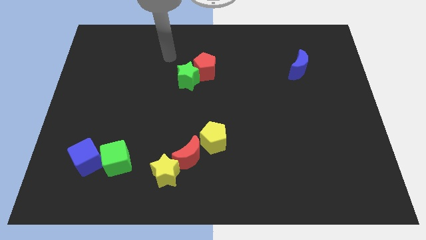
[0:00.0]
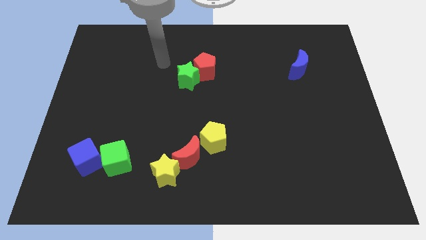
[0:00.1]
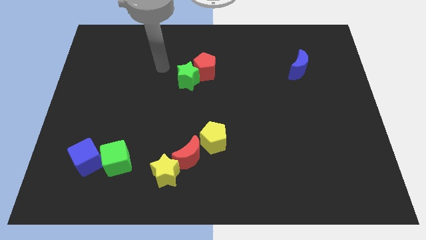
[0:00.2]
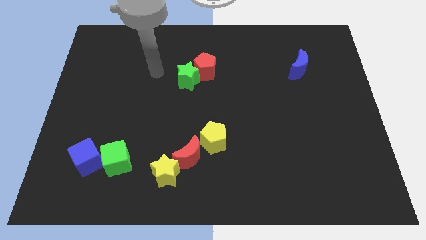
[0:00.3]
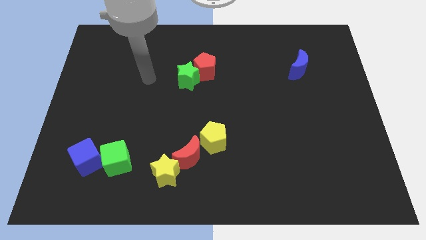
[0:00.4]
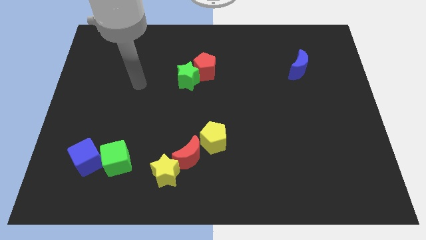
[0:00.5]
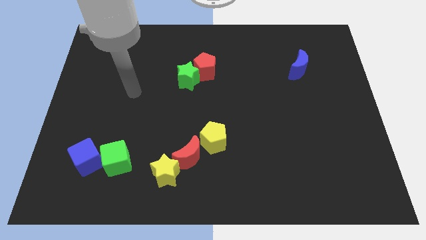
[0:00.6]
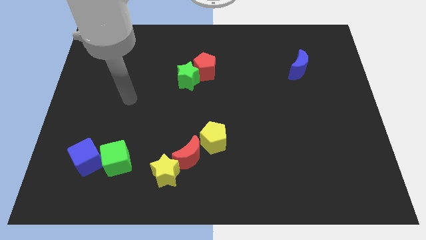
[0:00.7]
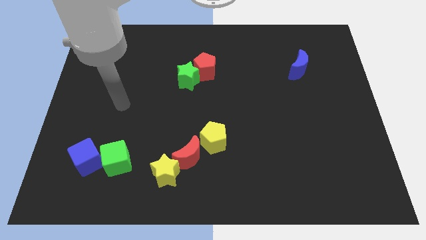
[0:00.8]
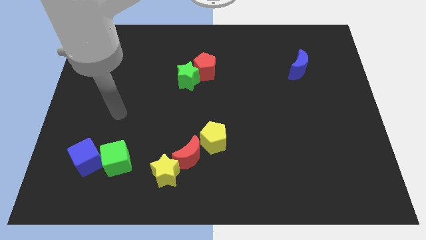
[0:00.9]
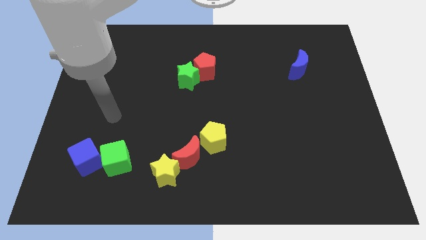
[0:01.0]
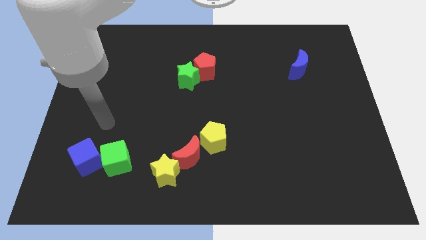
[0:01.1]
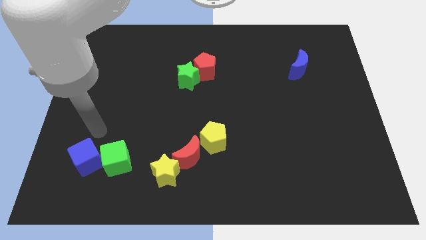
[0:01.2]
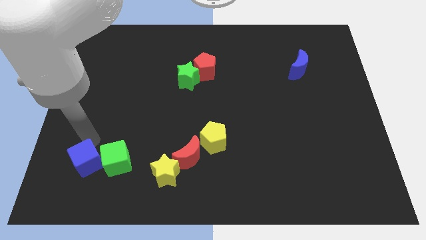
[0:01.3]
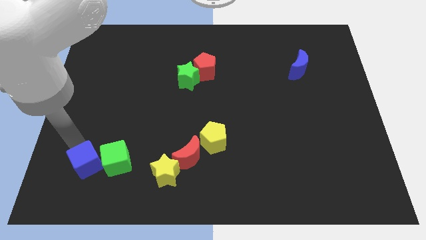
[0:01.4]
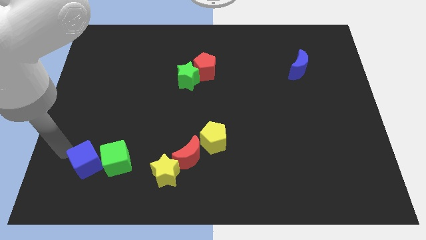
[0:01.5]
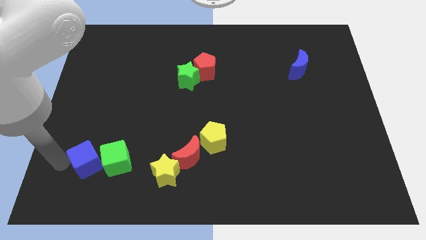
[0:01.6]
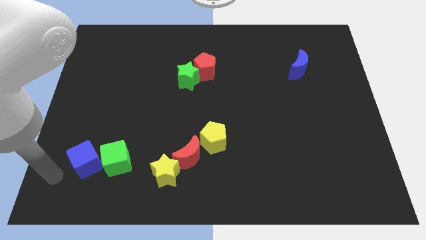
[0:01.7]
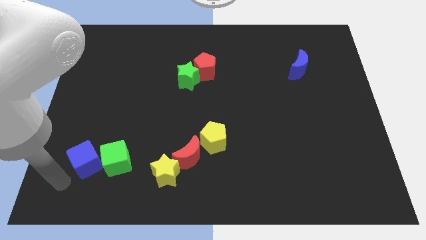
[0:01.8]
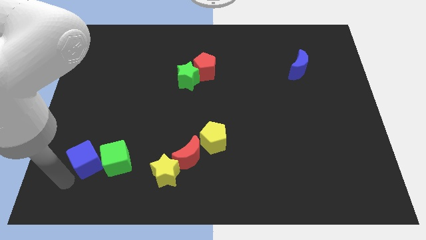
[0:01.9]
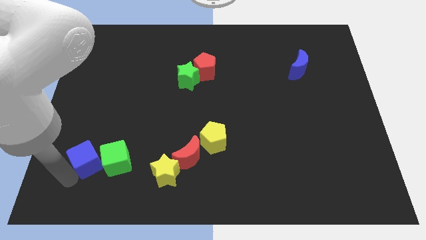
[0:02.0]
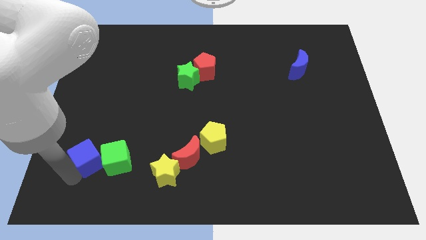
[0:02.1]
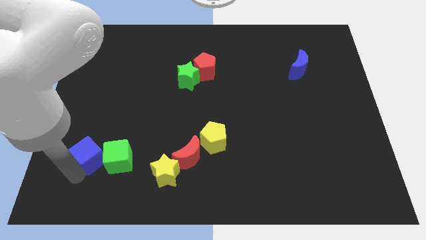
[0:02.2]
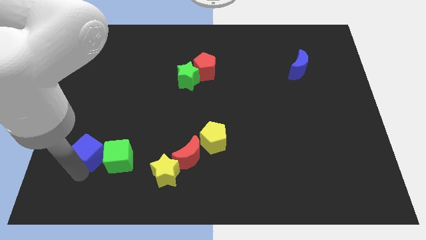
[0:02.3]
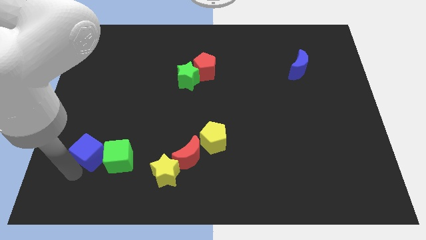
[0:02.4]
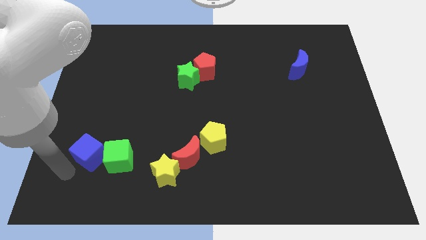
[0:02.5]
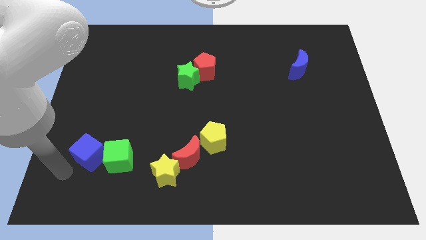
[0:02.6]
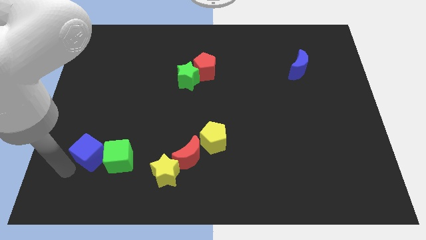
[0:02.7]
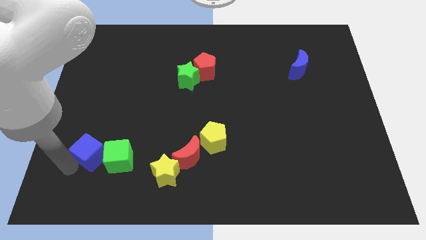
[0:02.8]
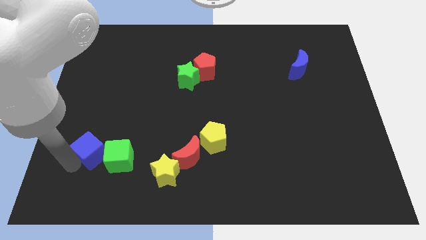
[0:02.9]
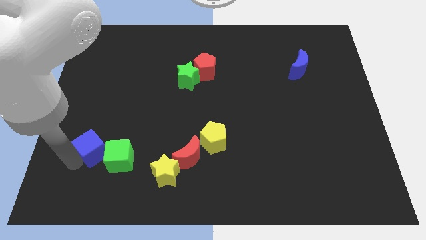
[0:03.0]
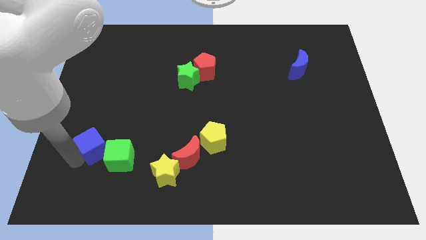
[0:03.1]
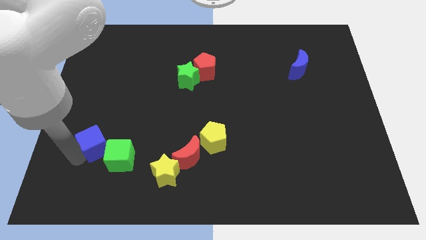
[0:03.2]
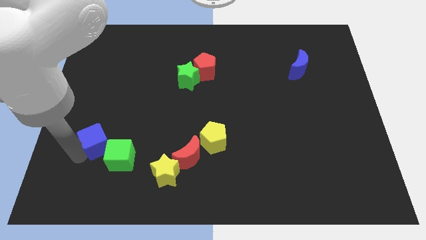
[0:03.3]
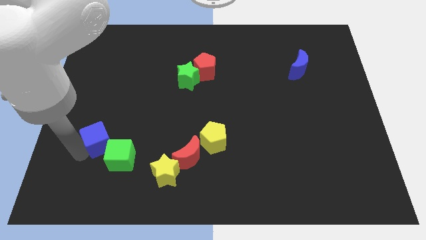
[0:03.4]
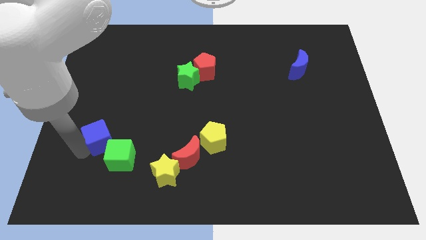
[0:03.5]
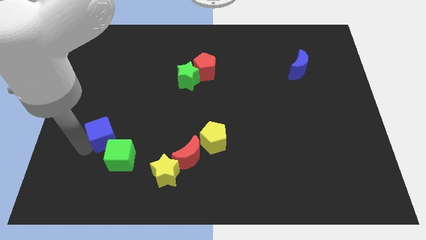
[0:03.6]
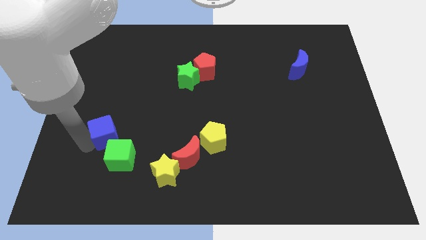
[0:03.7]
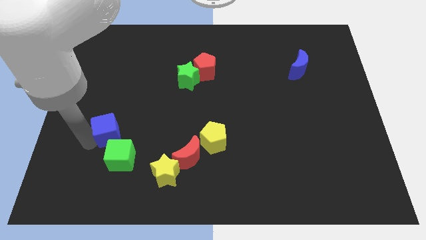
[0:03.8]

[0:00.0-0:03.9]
push the blue cube somewhat upwards and right diagonally

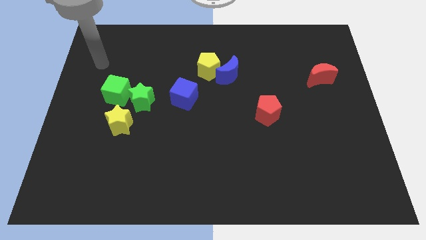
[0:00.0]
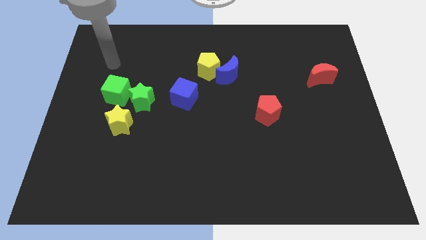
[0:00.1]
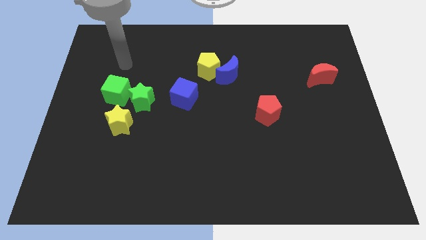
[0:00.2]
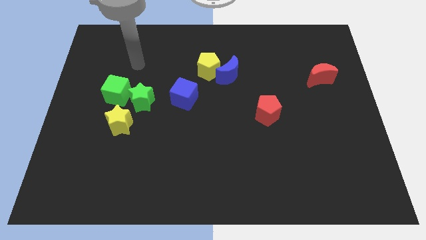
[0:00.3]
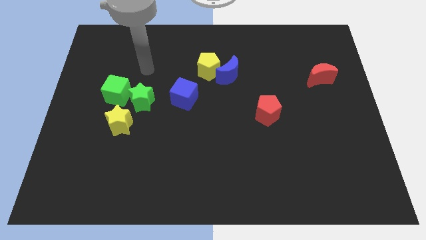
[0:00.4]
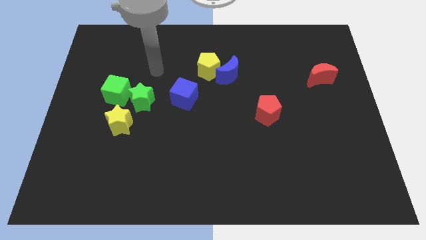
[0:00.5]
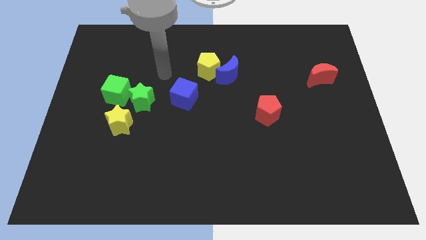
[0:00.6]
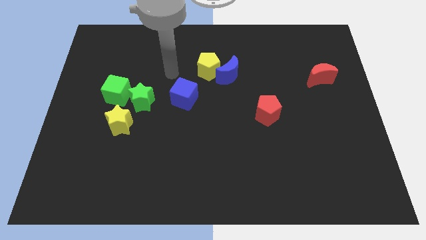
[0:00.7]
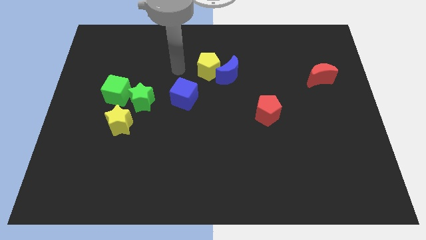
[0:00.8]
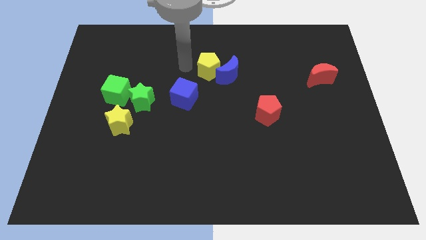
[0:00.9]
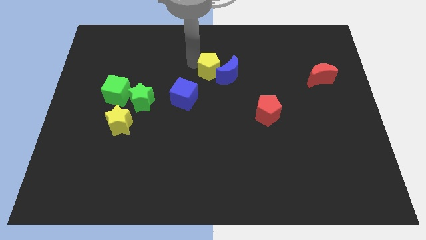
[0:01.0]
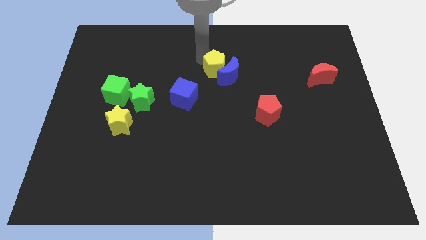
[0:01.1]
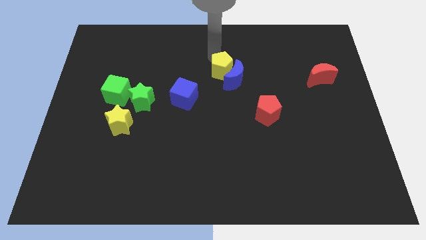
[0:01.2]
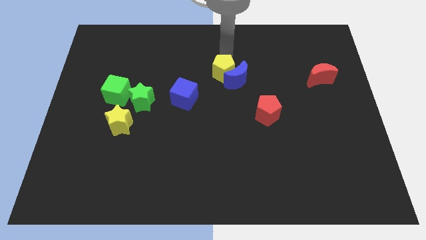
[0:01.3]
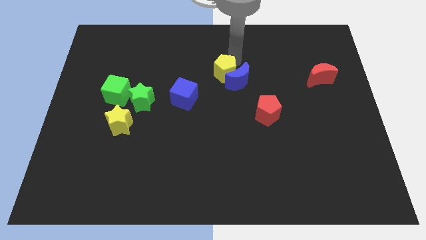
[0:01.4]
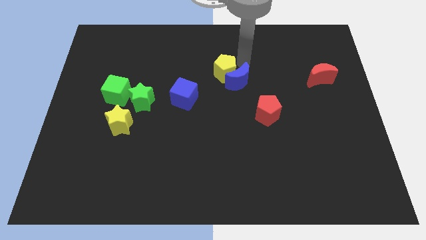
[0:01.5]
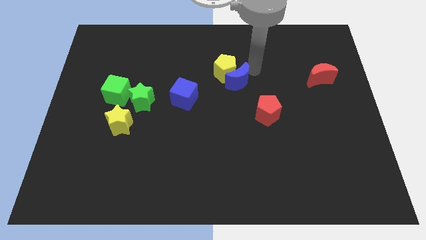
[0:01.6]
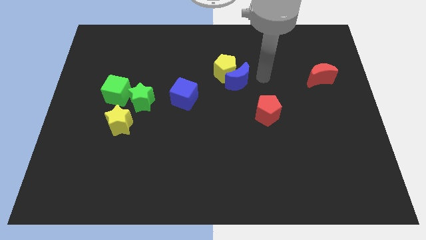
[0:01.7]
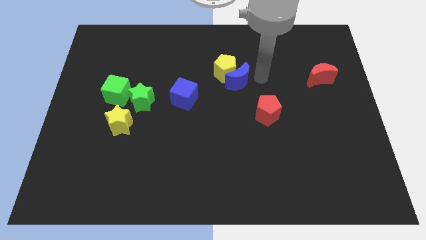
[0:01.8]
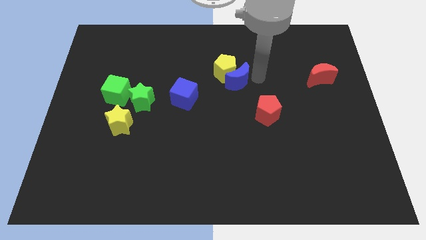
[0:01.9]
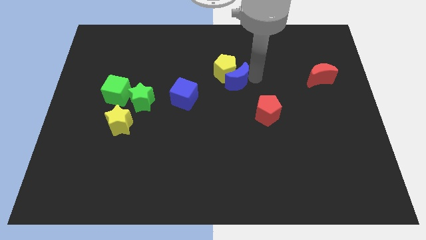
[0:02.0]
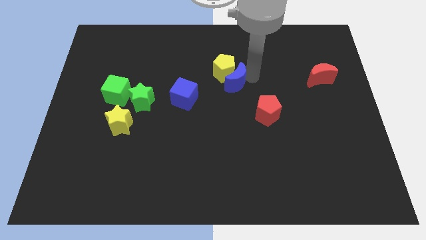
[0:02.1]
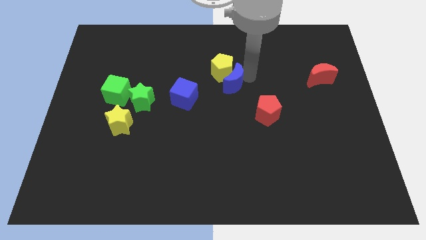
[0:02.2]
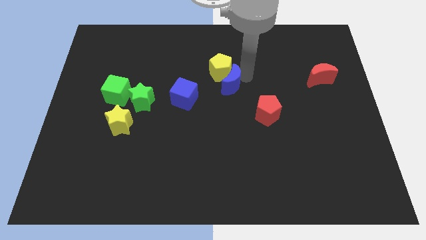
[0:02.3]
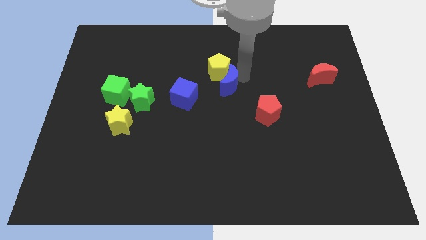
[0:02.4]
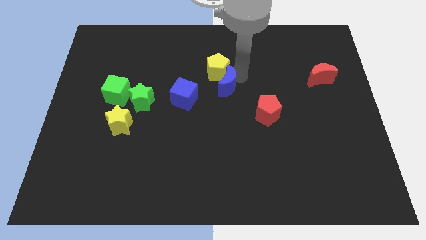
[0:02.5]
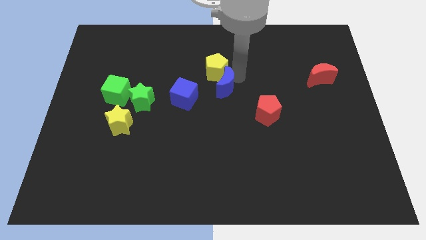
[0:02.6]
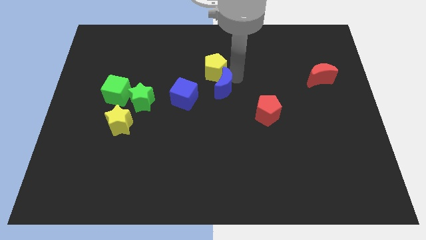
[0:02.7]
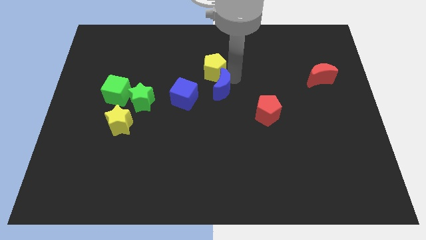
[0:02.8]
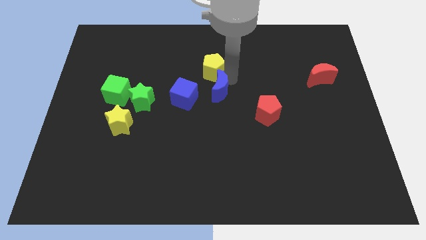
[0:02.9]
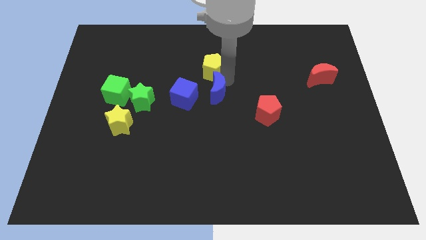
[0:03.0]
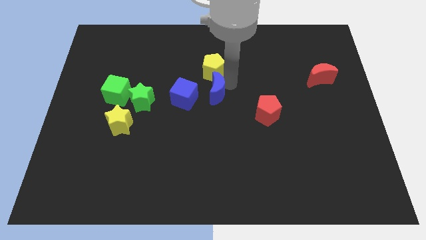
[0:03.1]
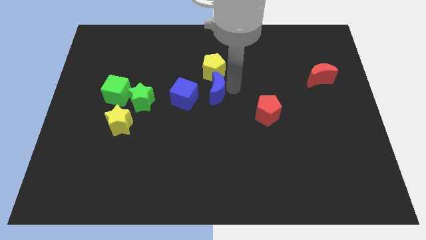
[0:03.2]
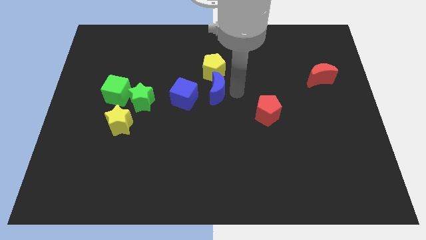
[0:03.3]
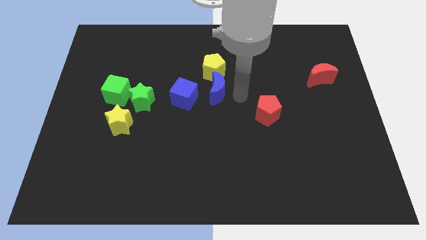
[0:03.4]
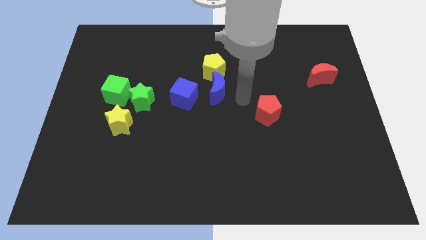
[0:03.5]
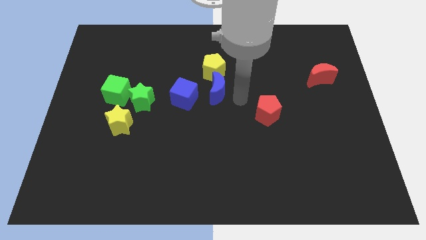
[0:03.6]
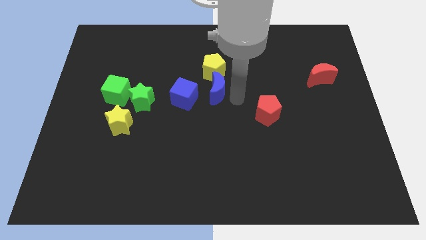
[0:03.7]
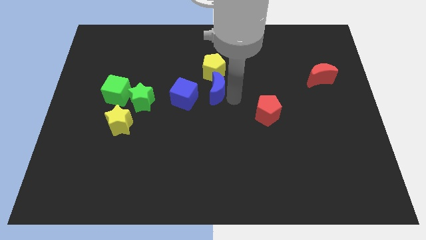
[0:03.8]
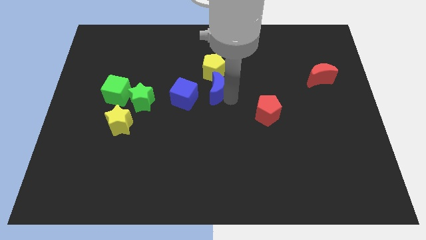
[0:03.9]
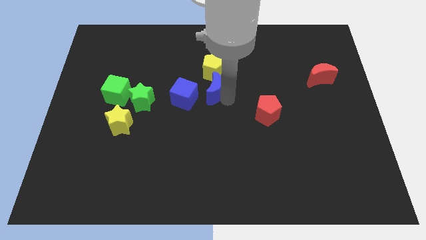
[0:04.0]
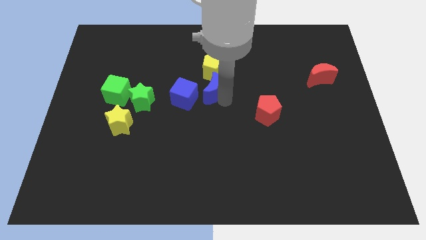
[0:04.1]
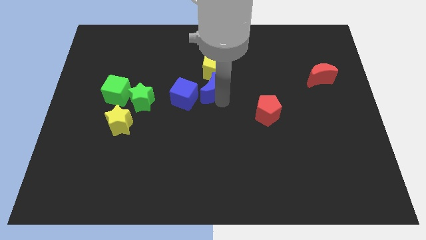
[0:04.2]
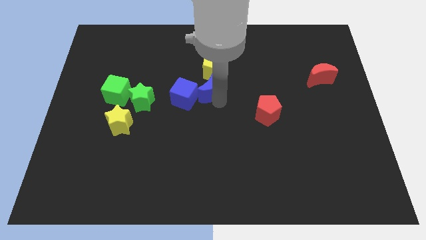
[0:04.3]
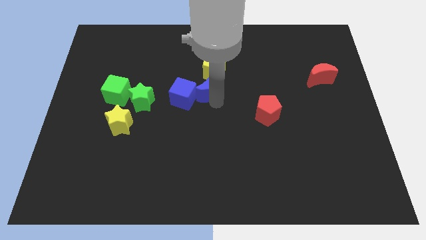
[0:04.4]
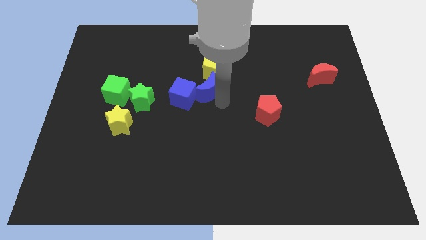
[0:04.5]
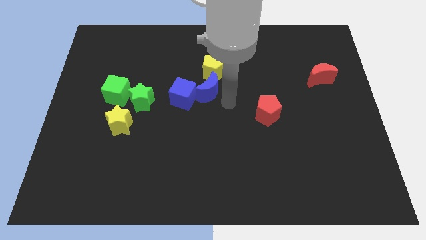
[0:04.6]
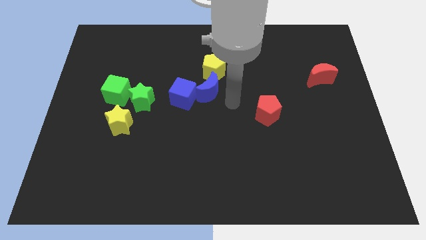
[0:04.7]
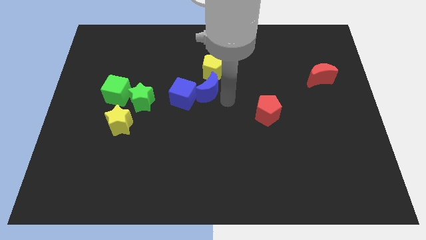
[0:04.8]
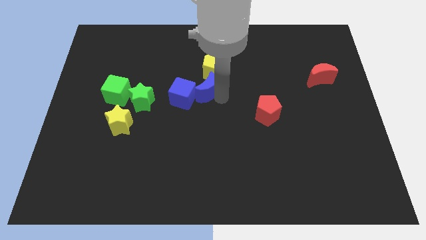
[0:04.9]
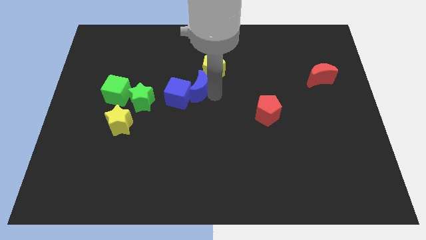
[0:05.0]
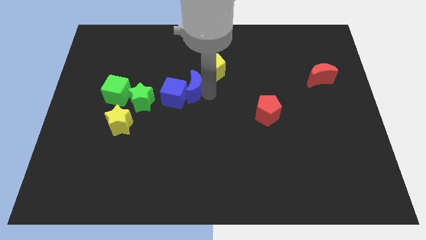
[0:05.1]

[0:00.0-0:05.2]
push the blue moon to the left somewhat
